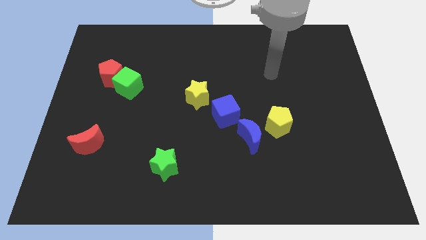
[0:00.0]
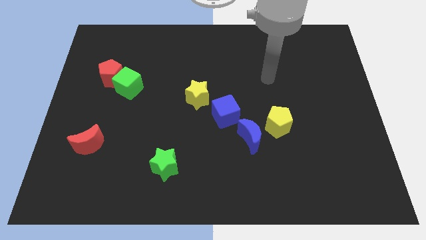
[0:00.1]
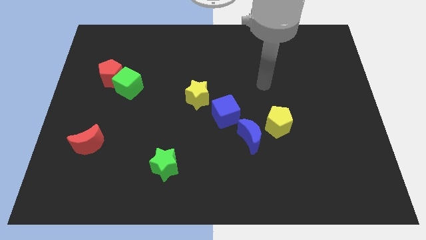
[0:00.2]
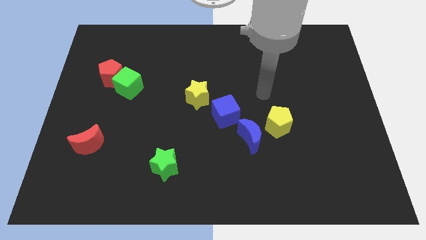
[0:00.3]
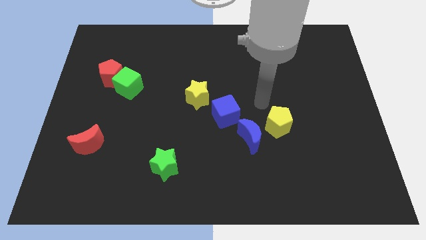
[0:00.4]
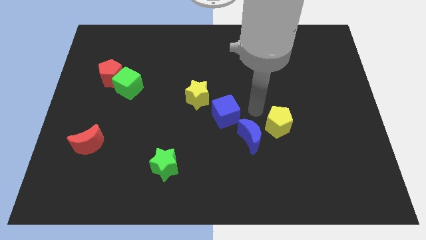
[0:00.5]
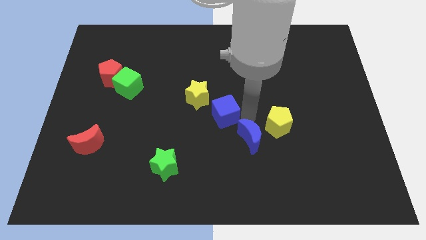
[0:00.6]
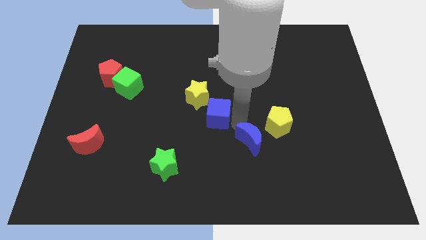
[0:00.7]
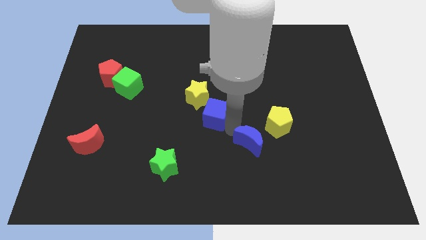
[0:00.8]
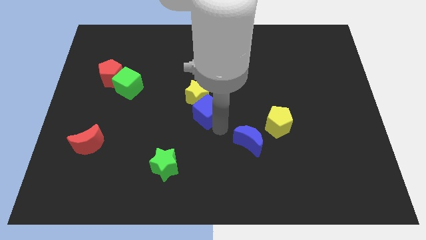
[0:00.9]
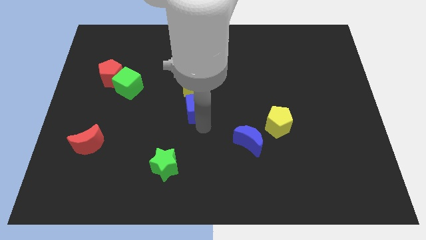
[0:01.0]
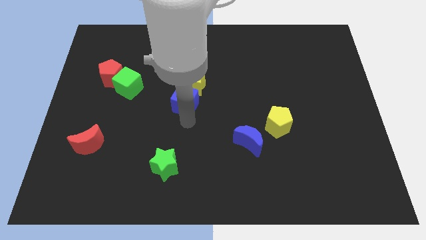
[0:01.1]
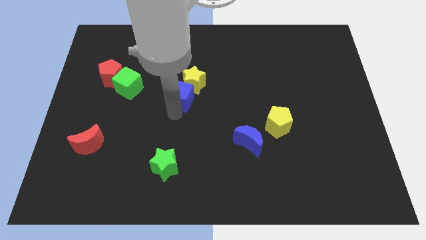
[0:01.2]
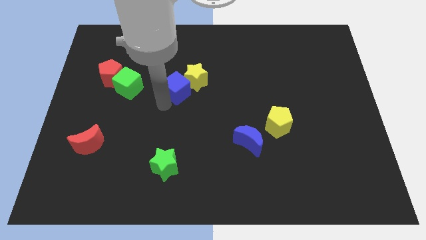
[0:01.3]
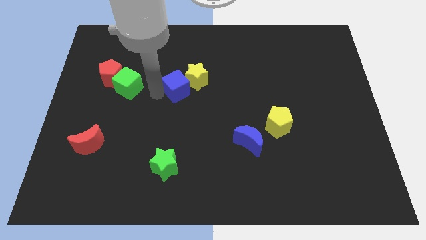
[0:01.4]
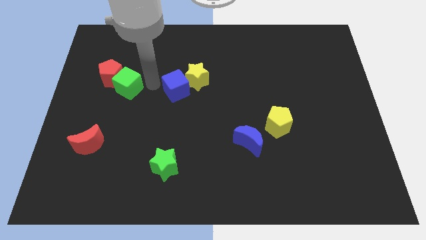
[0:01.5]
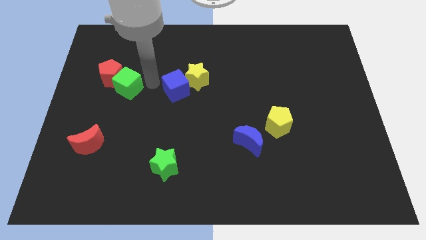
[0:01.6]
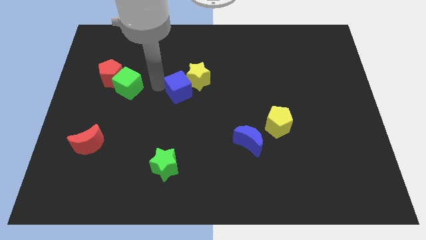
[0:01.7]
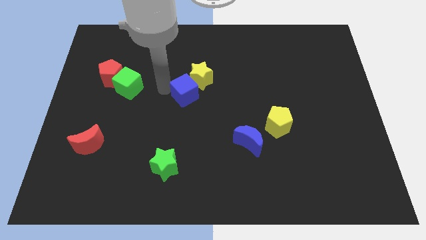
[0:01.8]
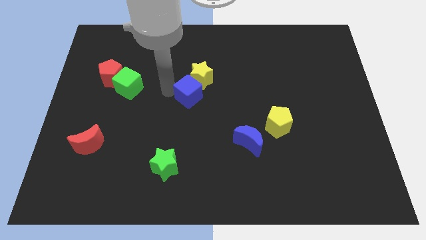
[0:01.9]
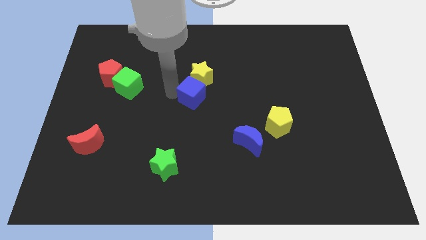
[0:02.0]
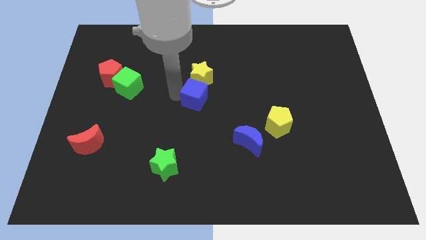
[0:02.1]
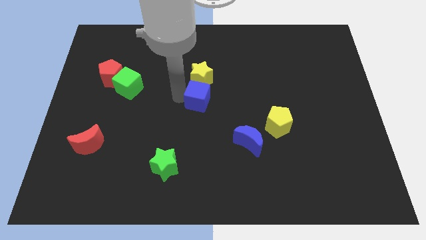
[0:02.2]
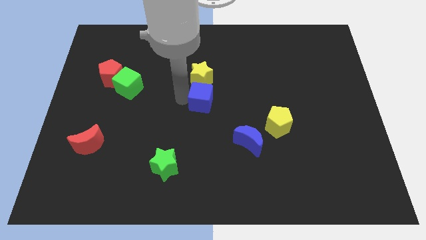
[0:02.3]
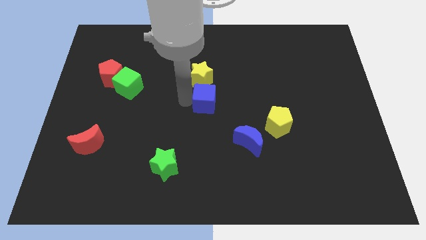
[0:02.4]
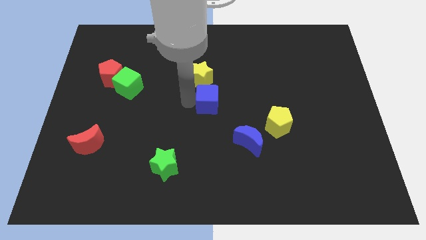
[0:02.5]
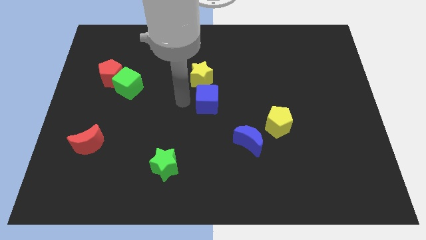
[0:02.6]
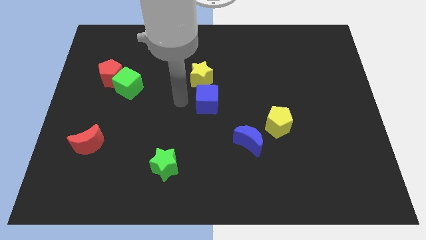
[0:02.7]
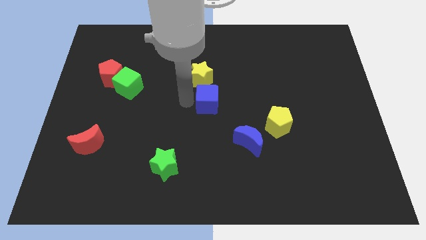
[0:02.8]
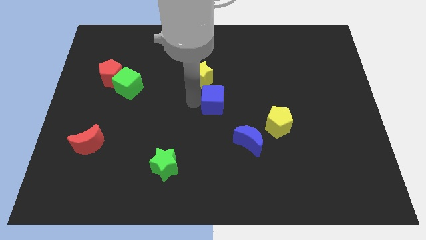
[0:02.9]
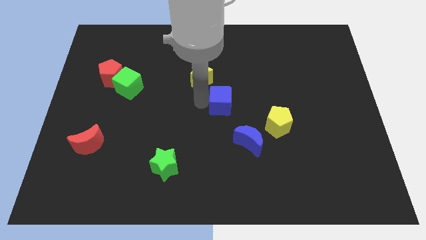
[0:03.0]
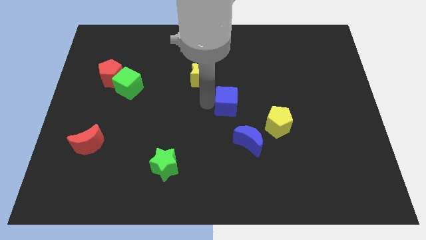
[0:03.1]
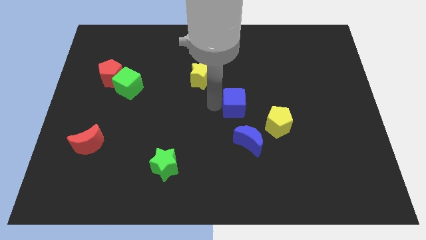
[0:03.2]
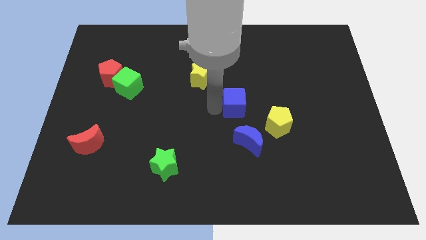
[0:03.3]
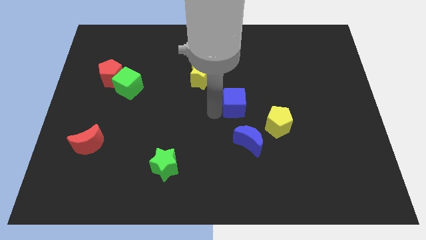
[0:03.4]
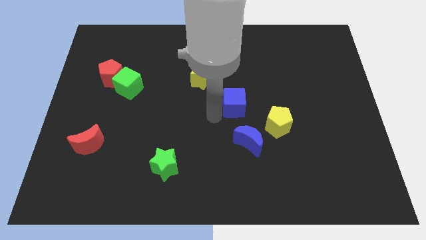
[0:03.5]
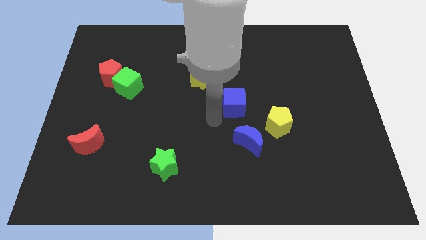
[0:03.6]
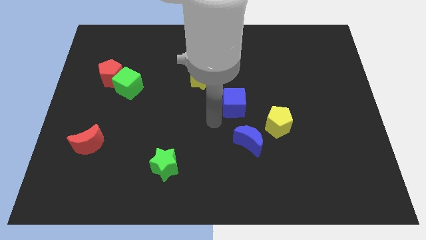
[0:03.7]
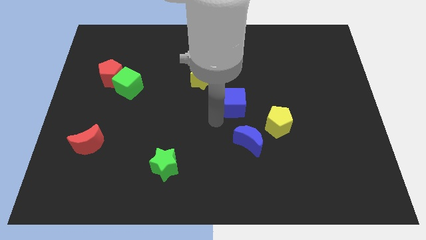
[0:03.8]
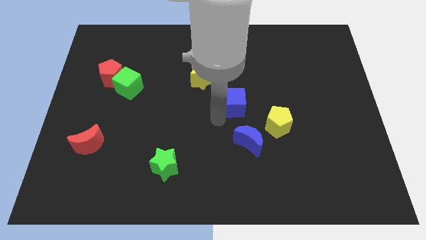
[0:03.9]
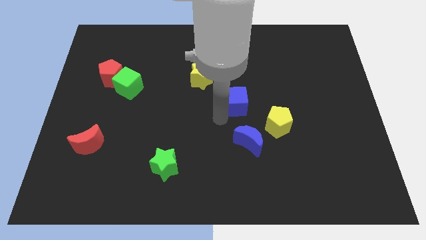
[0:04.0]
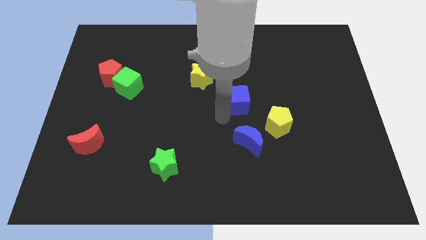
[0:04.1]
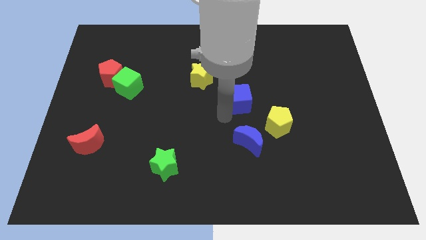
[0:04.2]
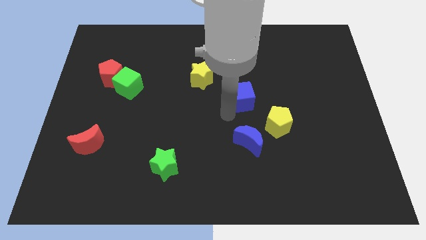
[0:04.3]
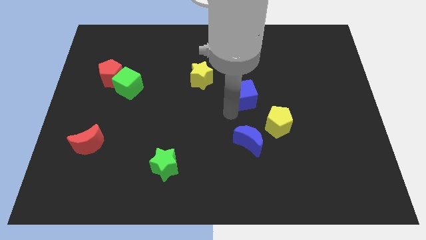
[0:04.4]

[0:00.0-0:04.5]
slightly push the blue cube upwards and right

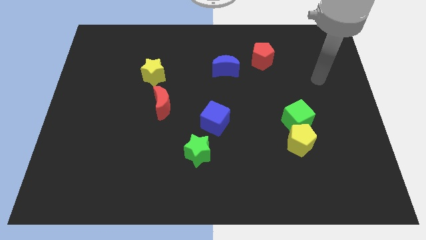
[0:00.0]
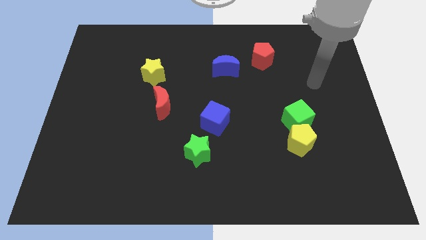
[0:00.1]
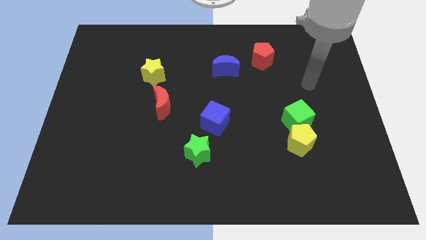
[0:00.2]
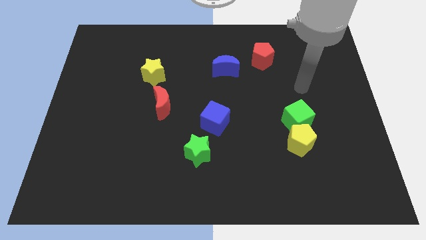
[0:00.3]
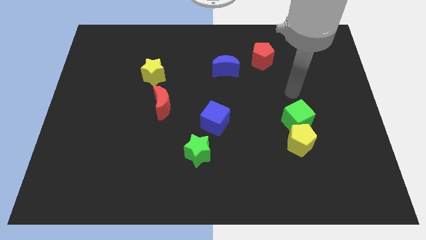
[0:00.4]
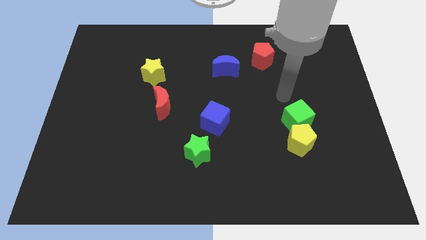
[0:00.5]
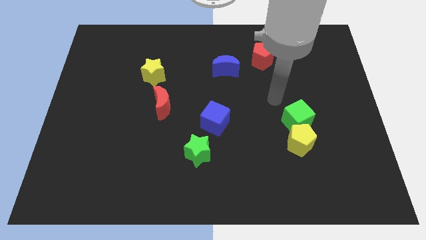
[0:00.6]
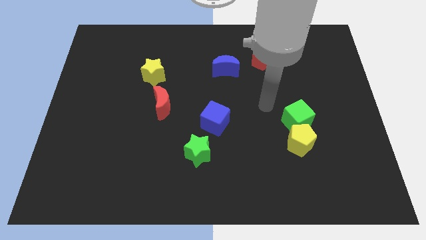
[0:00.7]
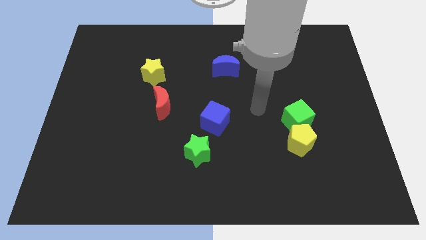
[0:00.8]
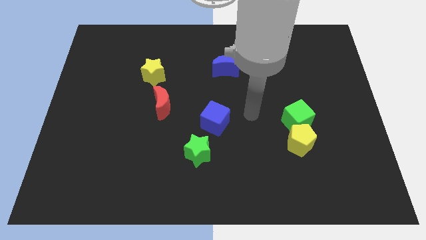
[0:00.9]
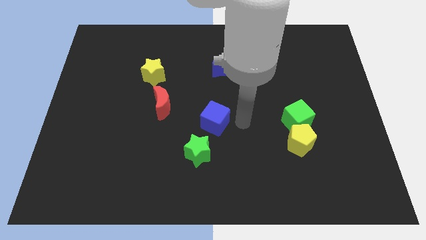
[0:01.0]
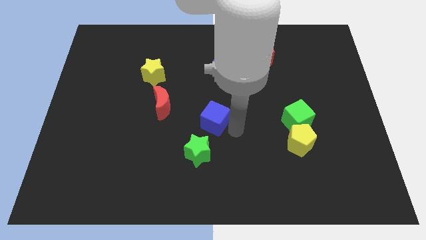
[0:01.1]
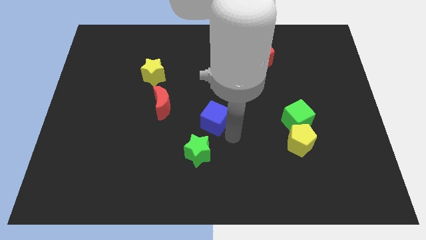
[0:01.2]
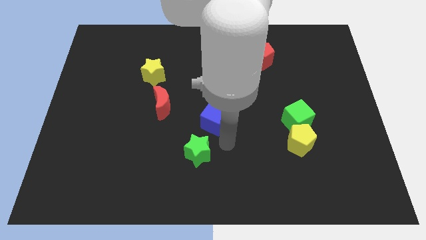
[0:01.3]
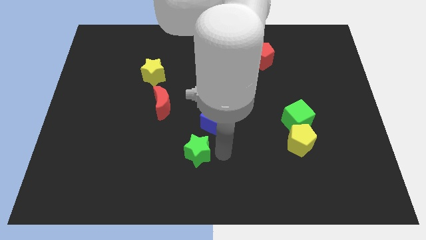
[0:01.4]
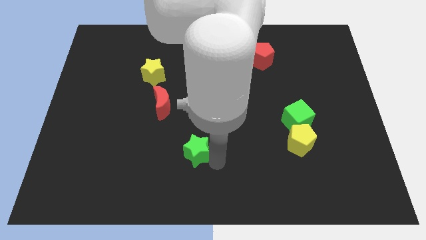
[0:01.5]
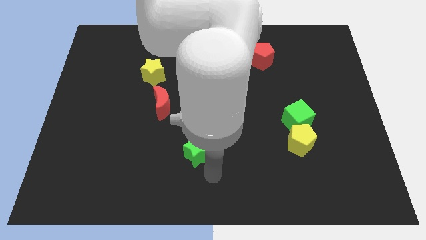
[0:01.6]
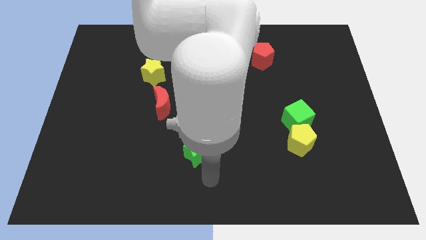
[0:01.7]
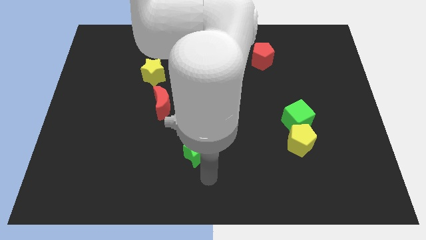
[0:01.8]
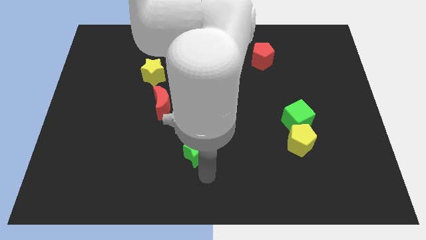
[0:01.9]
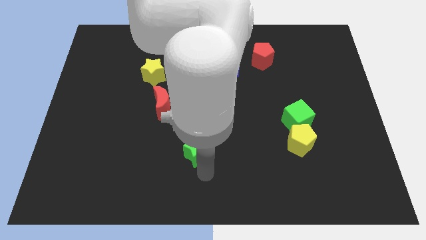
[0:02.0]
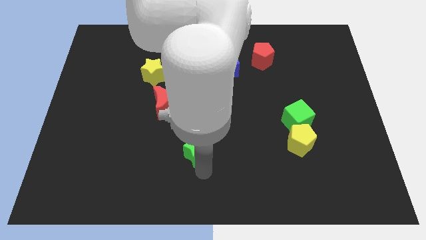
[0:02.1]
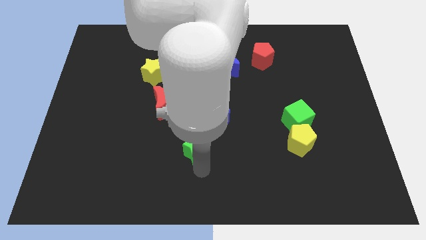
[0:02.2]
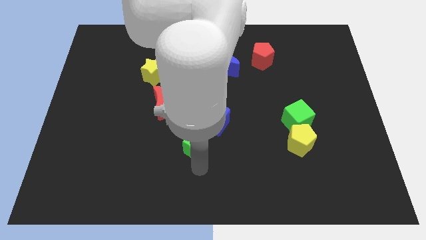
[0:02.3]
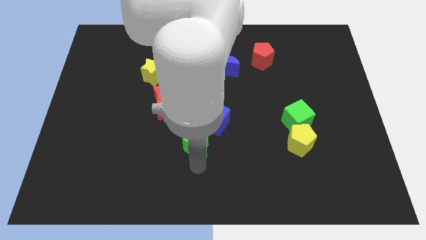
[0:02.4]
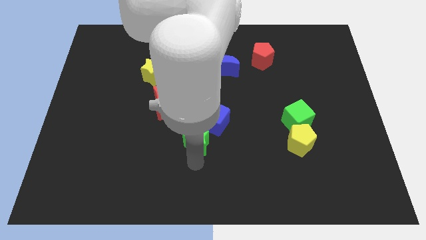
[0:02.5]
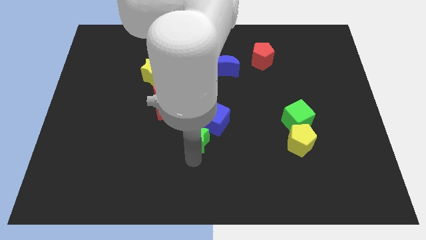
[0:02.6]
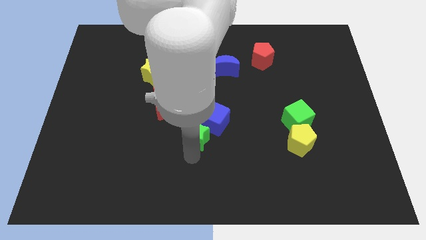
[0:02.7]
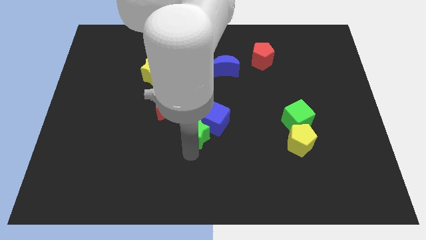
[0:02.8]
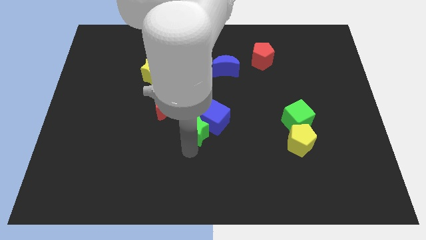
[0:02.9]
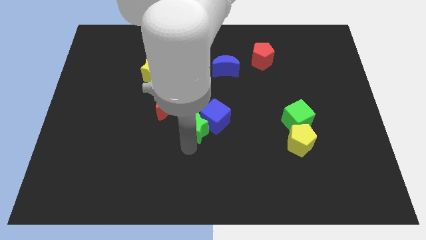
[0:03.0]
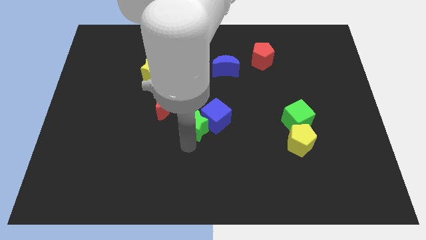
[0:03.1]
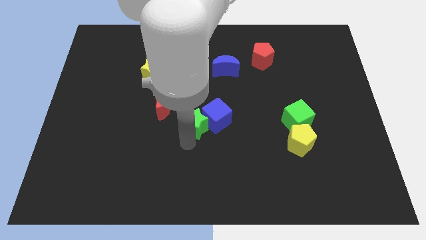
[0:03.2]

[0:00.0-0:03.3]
slide the green star up a little bit

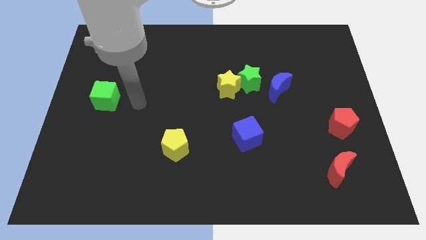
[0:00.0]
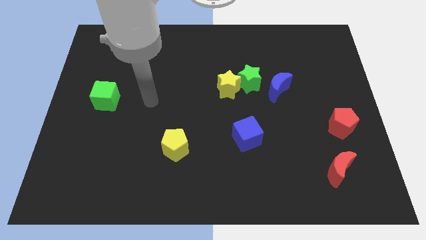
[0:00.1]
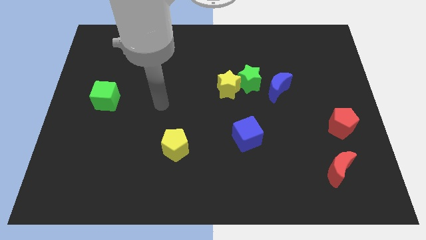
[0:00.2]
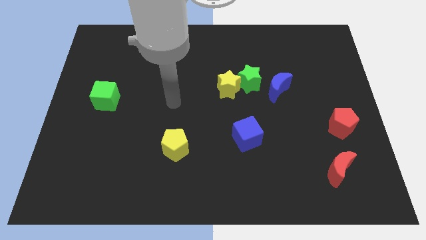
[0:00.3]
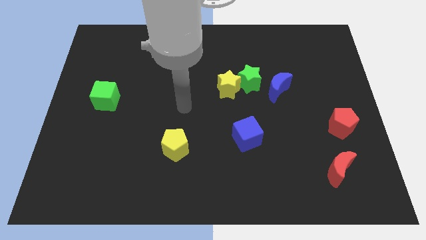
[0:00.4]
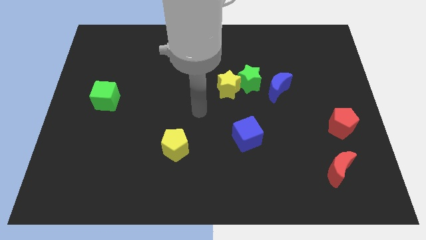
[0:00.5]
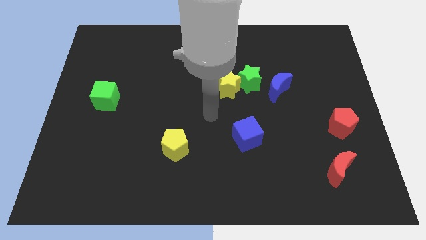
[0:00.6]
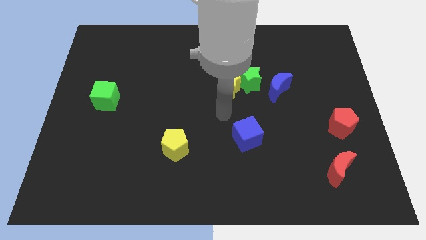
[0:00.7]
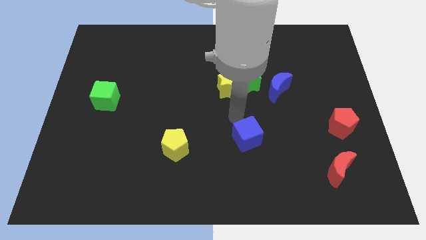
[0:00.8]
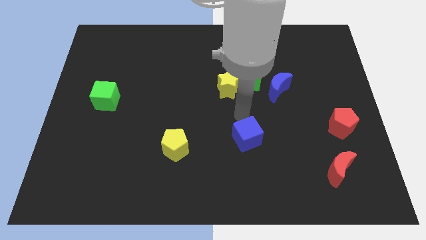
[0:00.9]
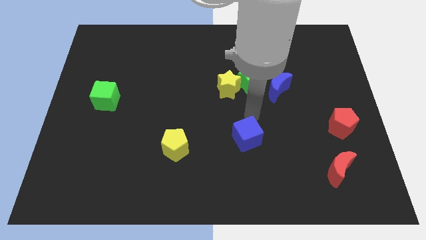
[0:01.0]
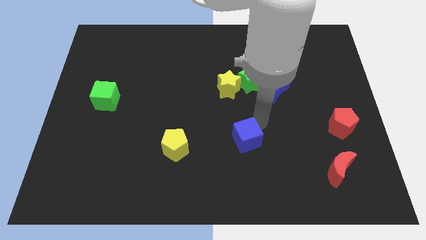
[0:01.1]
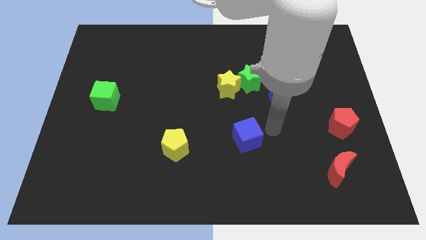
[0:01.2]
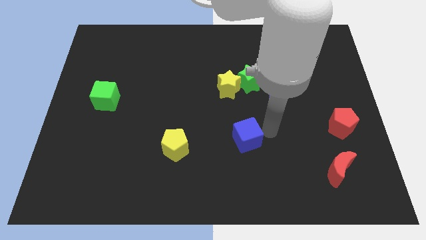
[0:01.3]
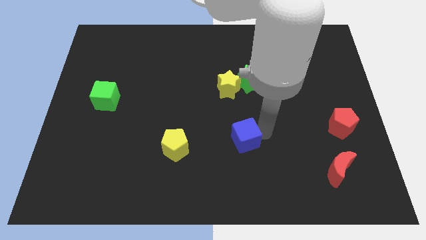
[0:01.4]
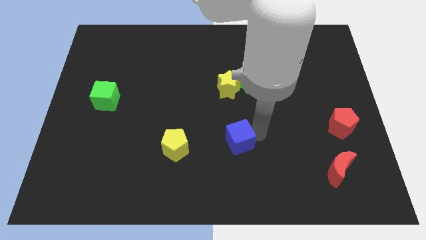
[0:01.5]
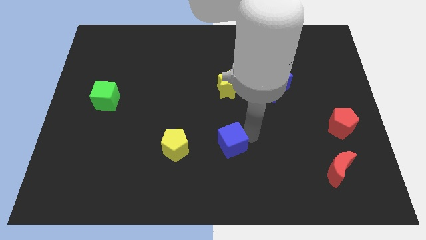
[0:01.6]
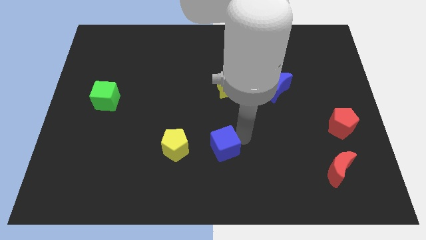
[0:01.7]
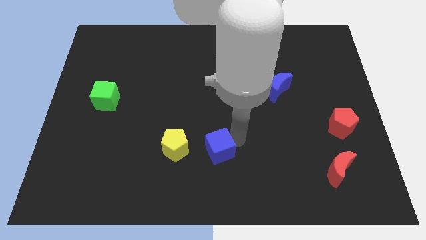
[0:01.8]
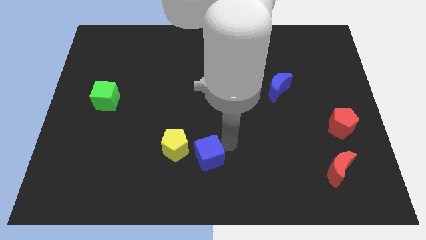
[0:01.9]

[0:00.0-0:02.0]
push the blue cube a little to the left
